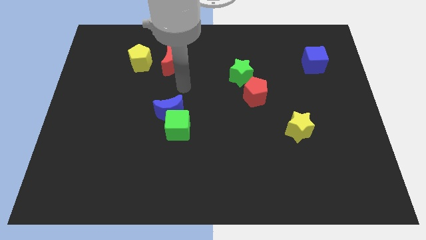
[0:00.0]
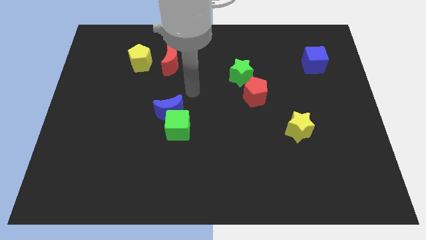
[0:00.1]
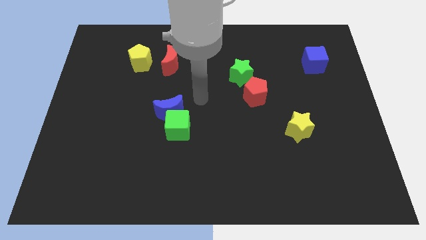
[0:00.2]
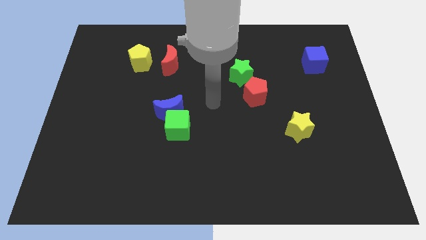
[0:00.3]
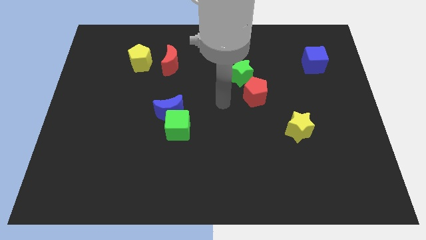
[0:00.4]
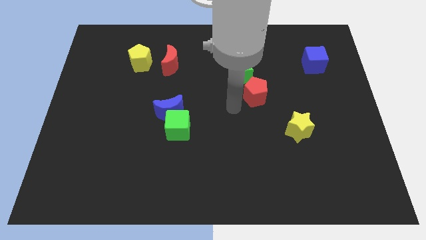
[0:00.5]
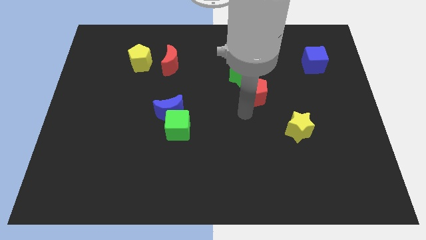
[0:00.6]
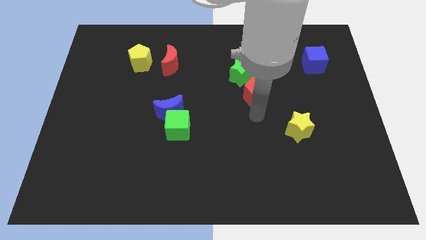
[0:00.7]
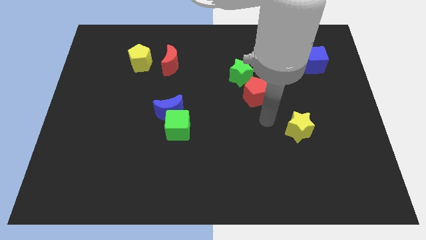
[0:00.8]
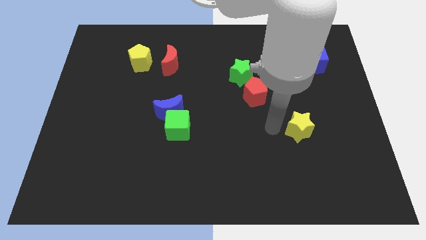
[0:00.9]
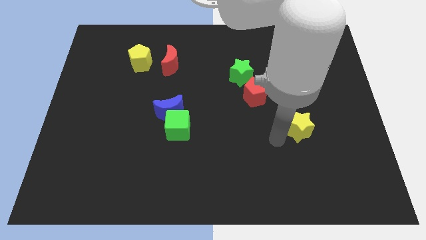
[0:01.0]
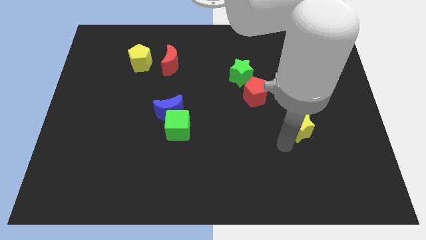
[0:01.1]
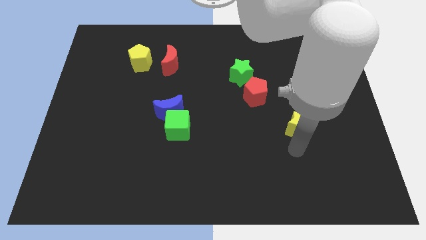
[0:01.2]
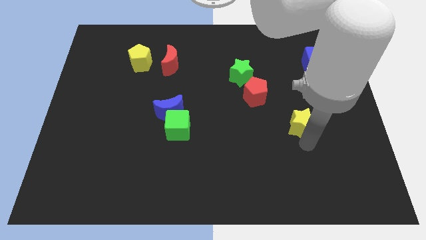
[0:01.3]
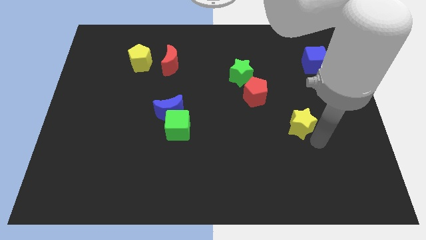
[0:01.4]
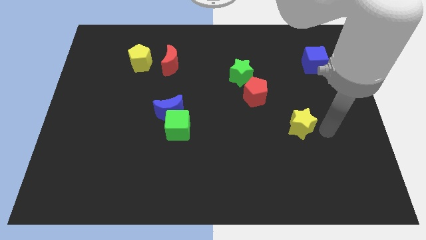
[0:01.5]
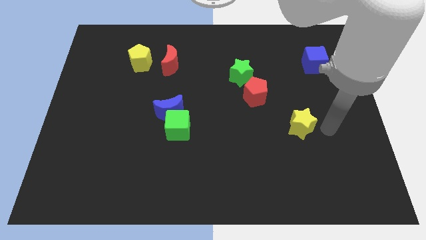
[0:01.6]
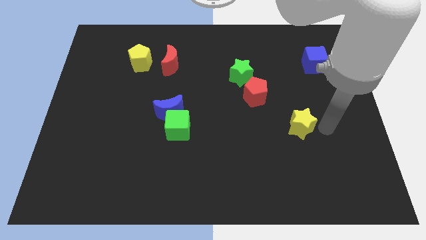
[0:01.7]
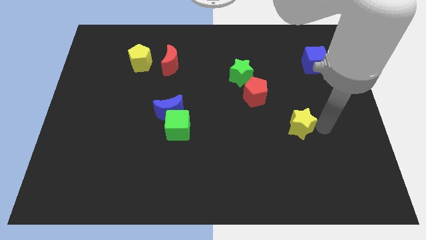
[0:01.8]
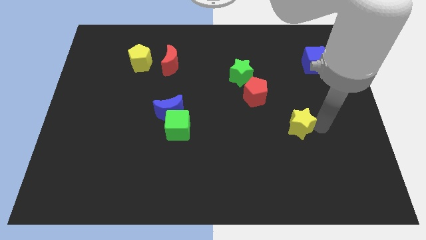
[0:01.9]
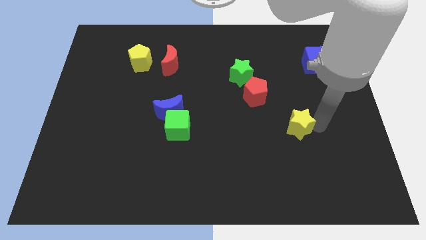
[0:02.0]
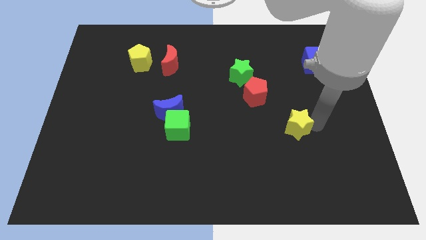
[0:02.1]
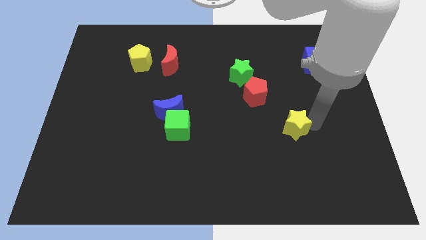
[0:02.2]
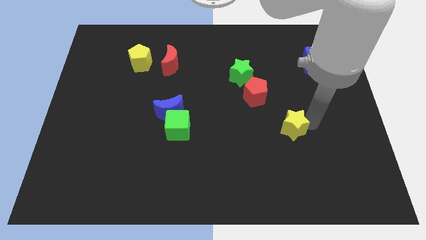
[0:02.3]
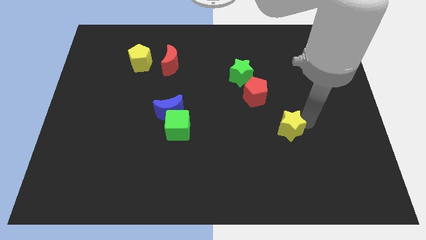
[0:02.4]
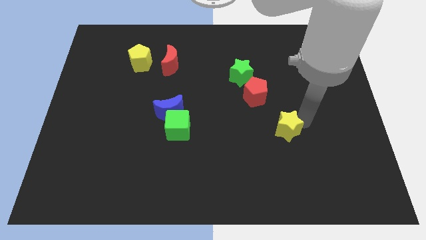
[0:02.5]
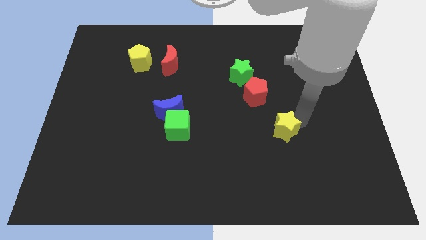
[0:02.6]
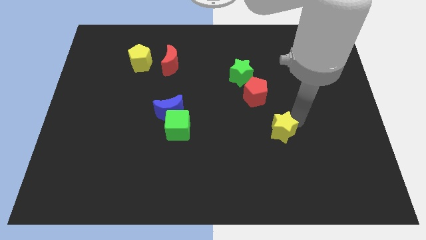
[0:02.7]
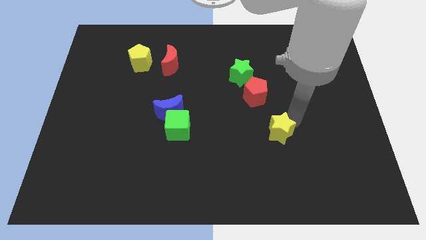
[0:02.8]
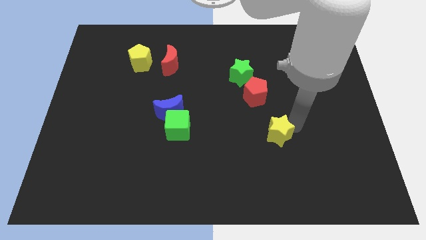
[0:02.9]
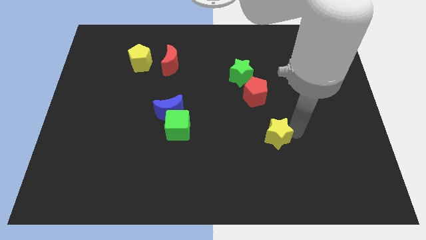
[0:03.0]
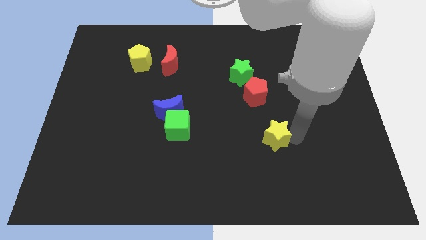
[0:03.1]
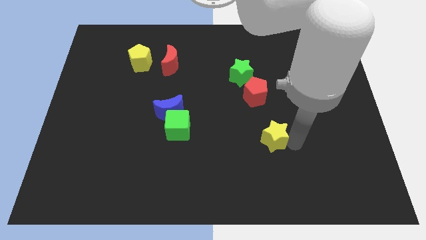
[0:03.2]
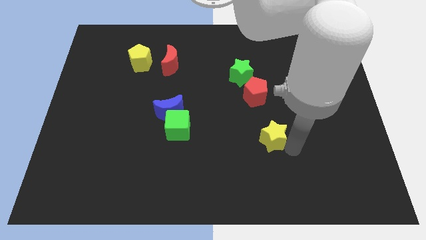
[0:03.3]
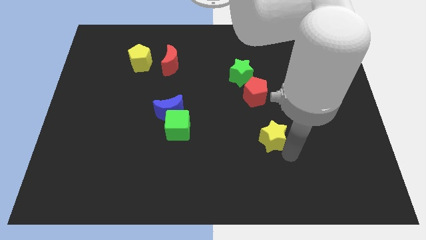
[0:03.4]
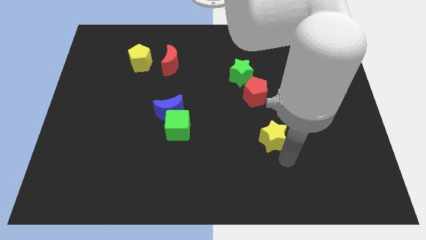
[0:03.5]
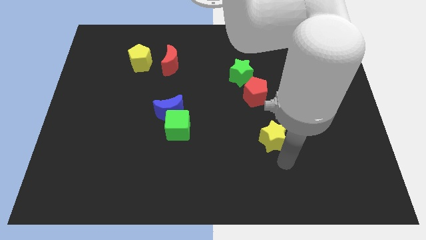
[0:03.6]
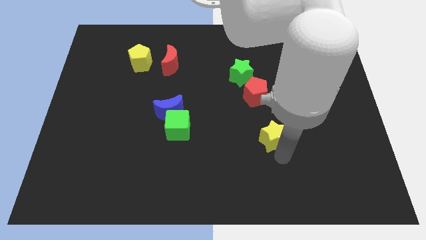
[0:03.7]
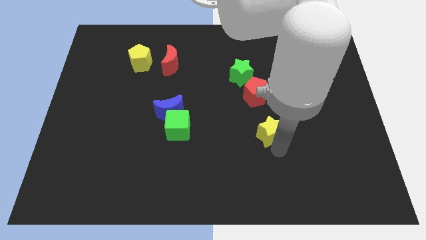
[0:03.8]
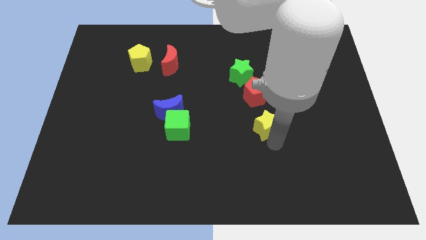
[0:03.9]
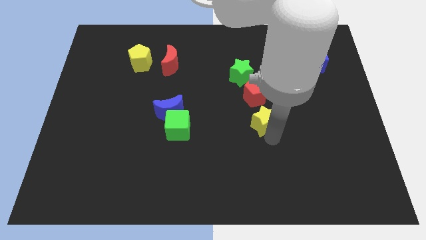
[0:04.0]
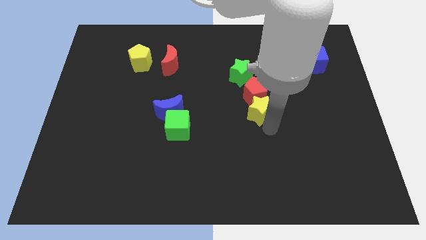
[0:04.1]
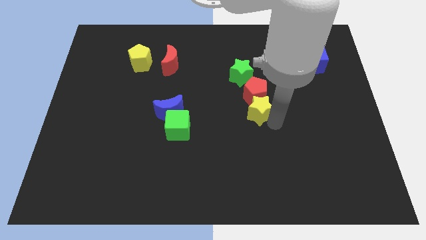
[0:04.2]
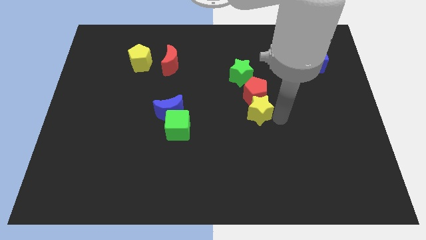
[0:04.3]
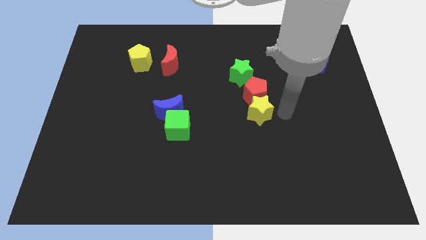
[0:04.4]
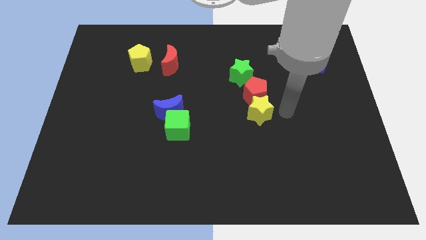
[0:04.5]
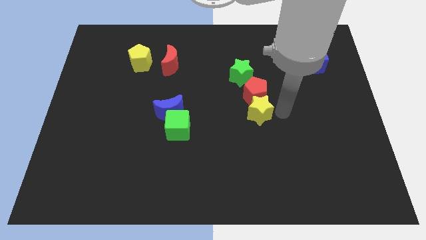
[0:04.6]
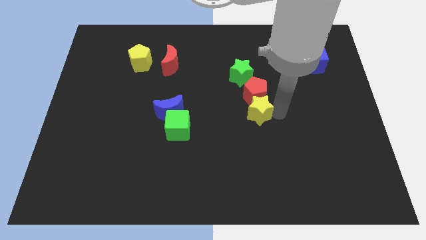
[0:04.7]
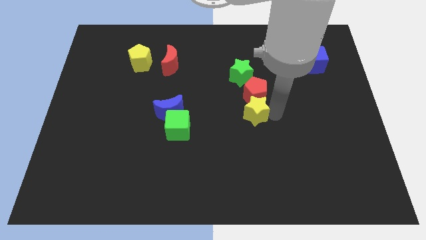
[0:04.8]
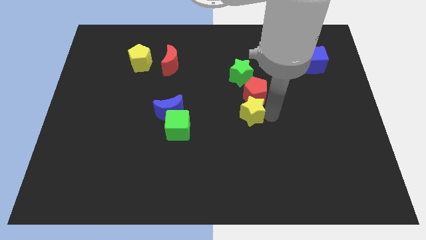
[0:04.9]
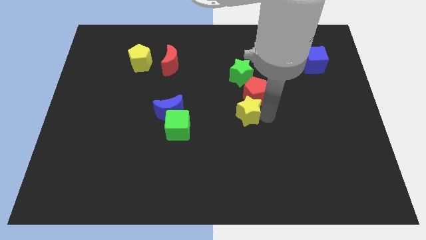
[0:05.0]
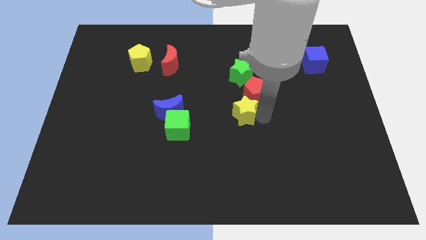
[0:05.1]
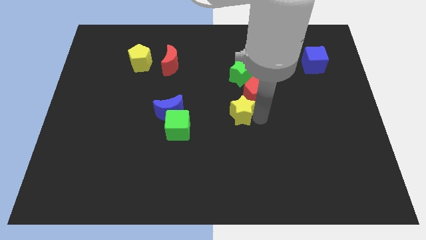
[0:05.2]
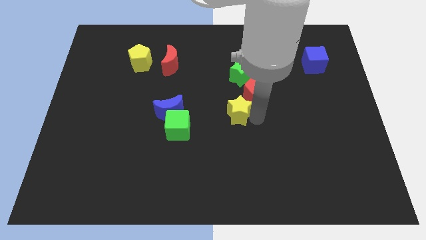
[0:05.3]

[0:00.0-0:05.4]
put the yellow star to the right side of the blue moon

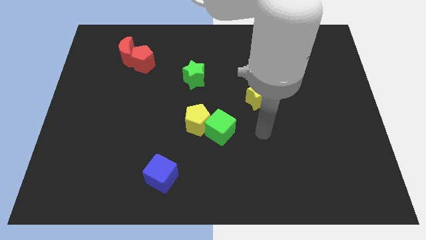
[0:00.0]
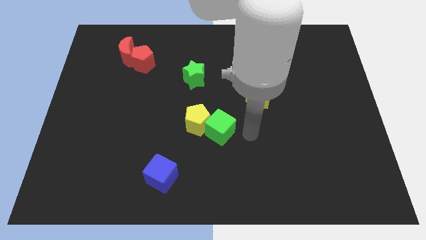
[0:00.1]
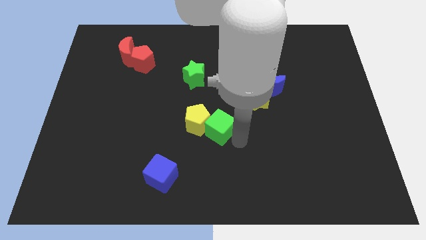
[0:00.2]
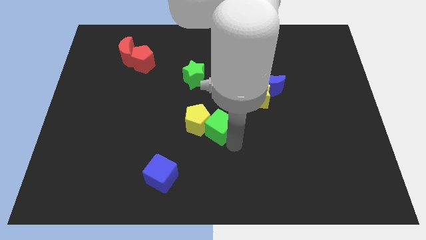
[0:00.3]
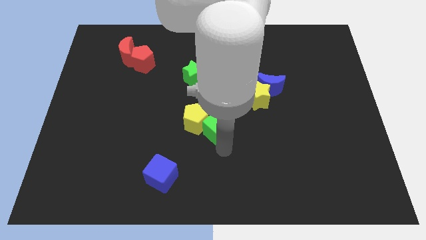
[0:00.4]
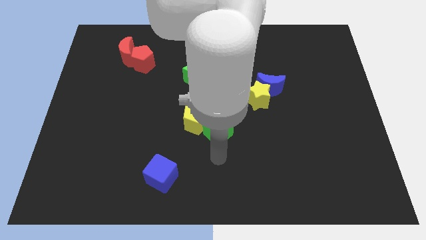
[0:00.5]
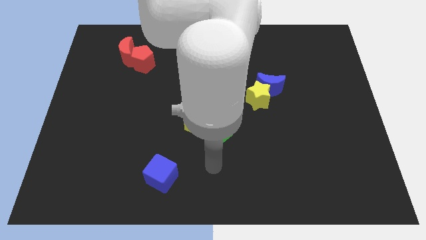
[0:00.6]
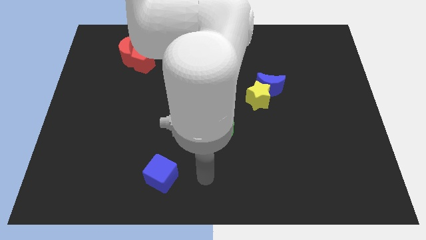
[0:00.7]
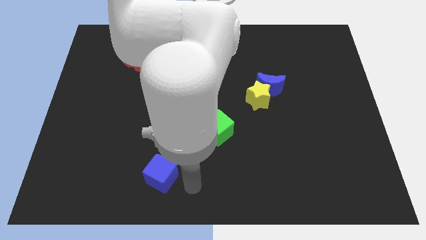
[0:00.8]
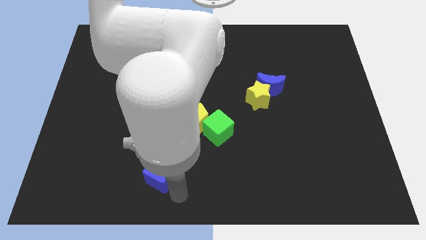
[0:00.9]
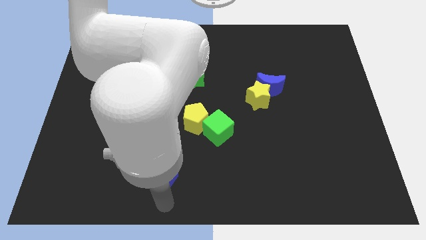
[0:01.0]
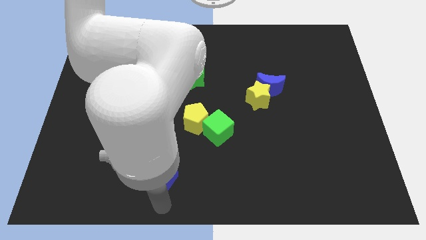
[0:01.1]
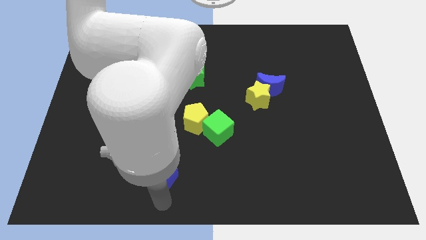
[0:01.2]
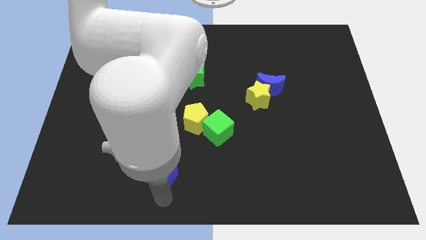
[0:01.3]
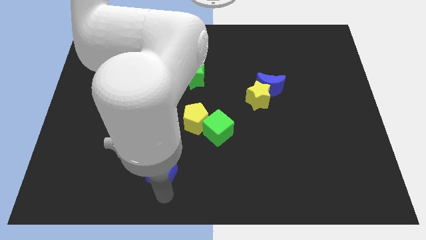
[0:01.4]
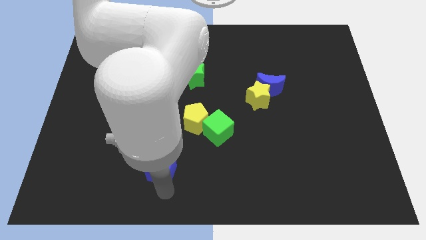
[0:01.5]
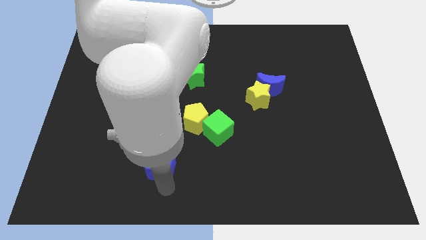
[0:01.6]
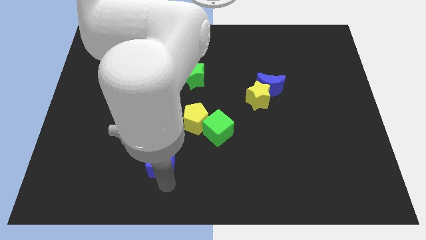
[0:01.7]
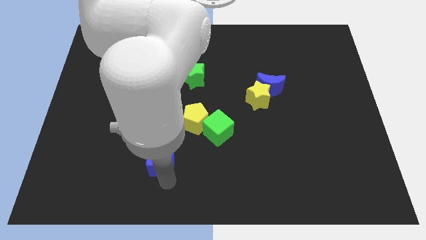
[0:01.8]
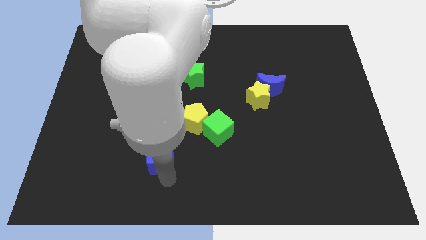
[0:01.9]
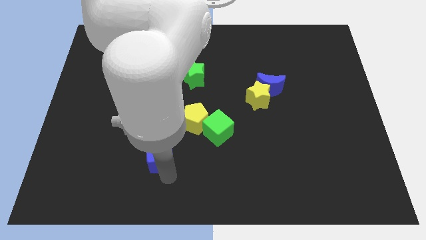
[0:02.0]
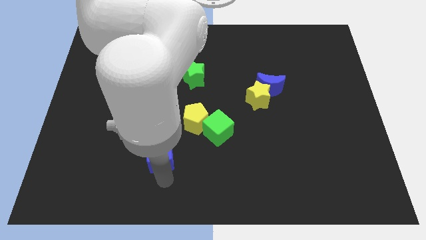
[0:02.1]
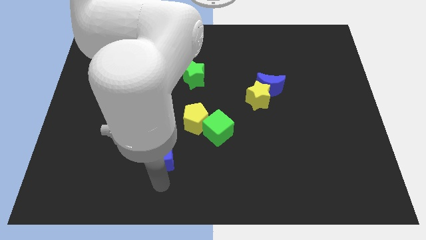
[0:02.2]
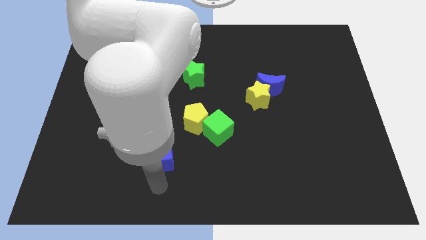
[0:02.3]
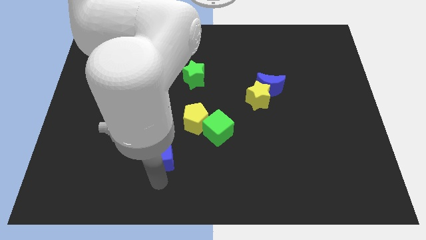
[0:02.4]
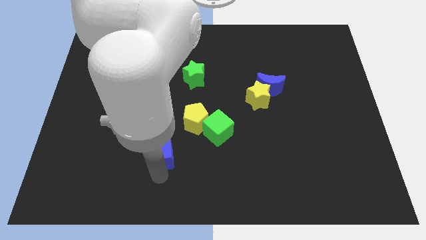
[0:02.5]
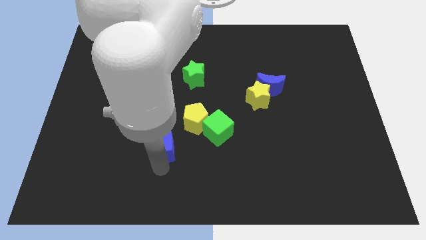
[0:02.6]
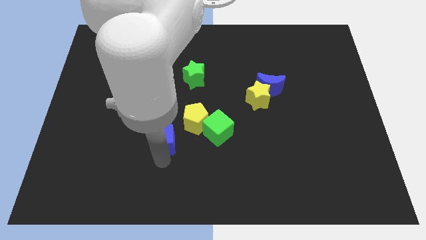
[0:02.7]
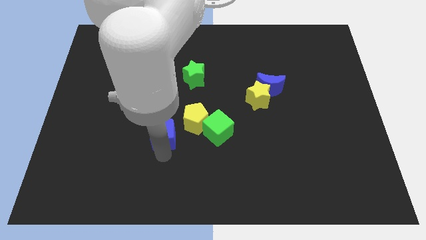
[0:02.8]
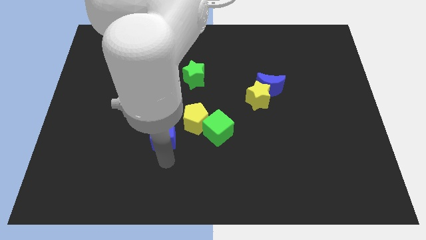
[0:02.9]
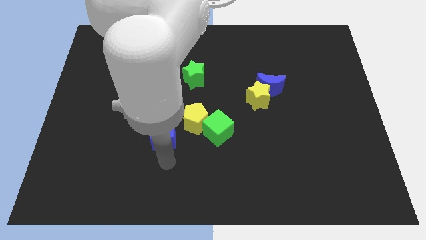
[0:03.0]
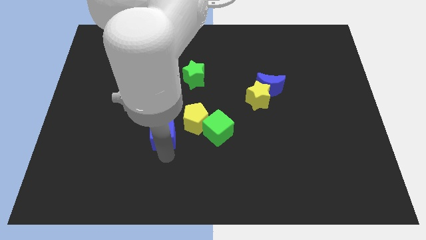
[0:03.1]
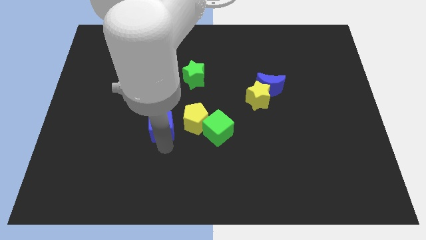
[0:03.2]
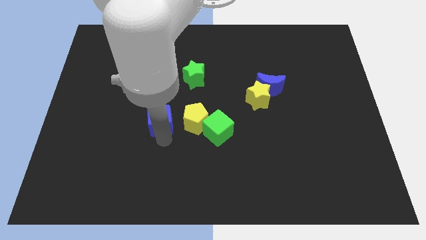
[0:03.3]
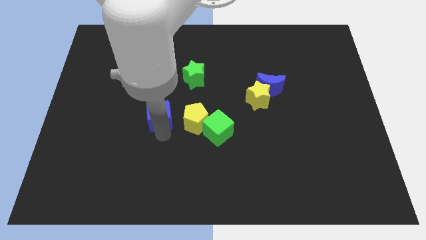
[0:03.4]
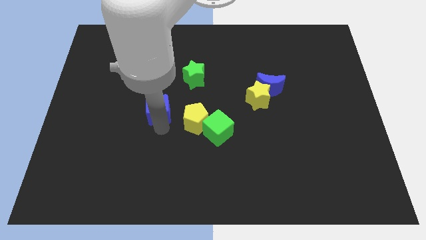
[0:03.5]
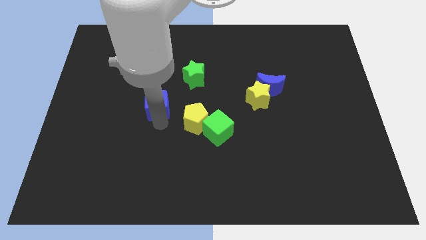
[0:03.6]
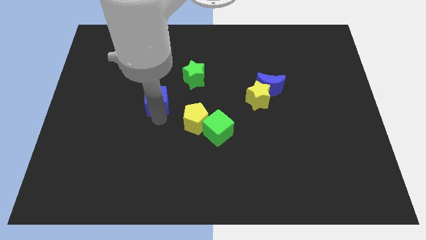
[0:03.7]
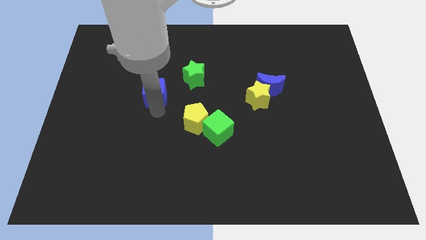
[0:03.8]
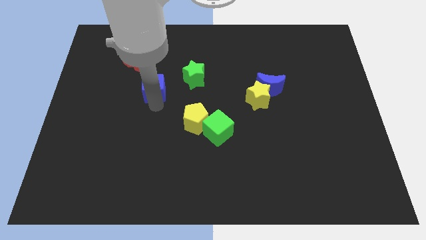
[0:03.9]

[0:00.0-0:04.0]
push the blue cube diagonally down and to the right of the red pentagon
